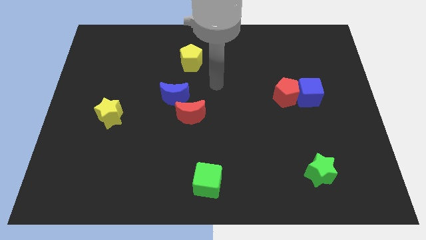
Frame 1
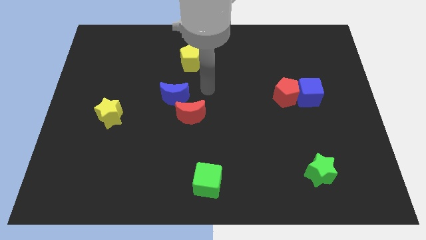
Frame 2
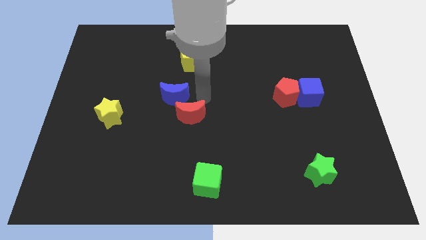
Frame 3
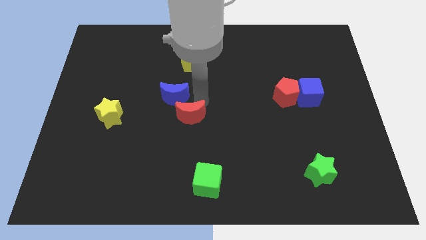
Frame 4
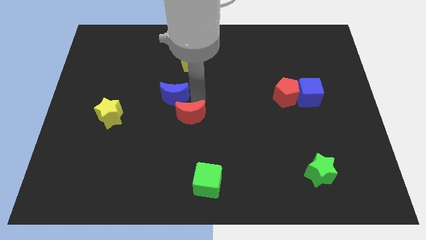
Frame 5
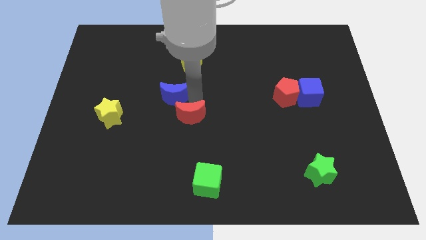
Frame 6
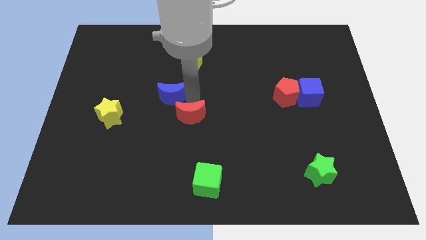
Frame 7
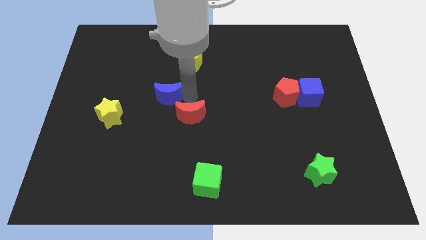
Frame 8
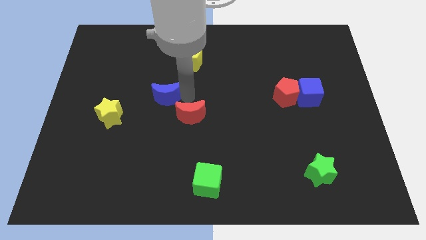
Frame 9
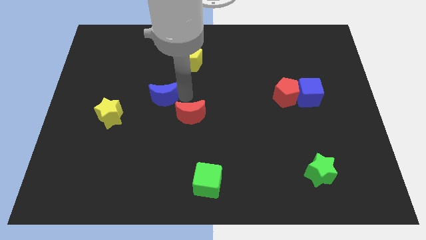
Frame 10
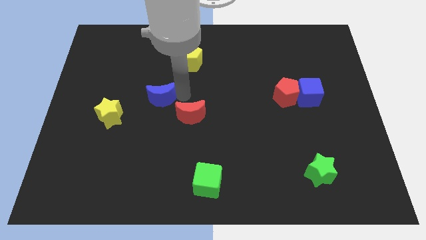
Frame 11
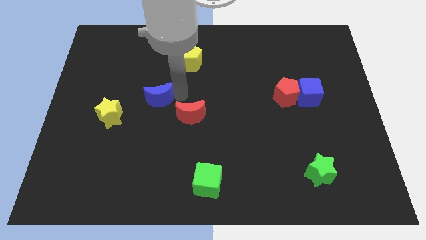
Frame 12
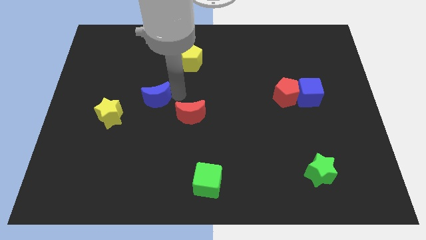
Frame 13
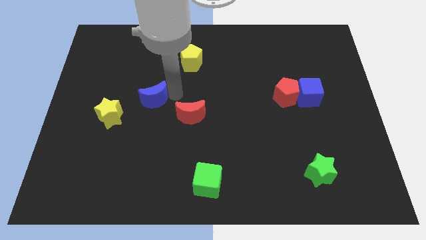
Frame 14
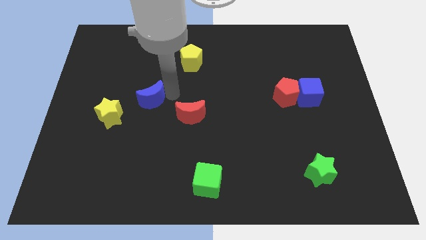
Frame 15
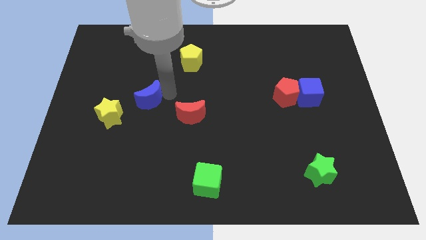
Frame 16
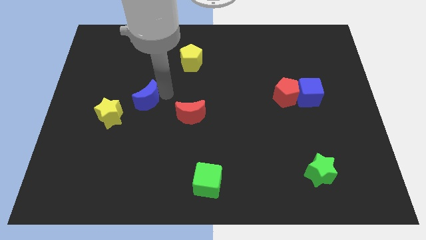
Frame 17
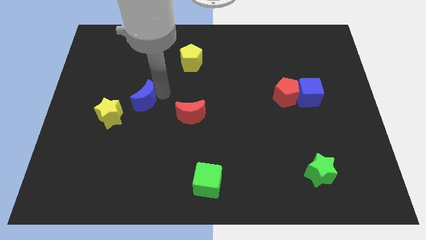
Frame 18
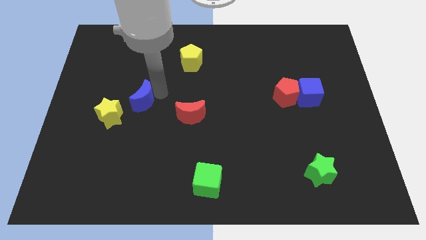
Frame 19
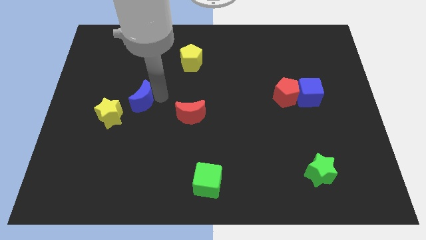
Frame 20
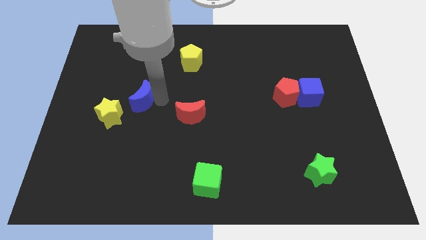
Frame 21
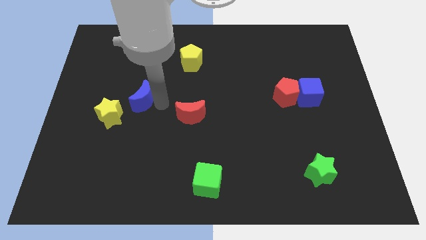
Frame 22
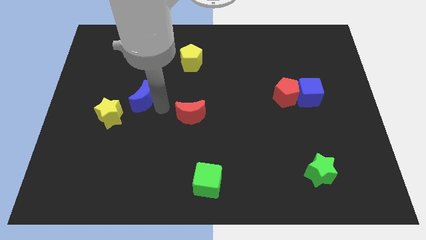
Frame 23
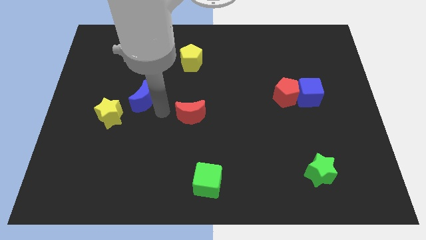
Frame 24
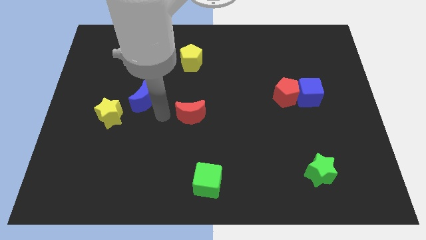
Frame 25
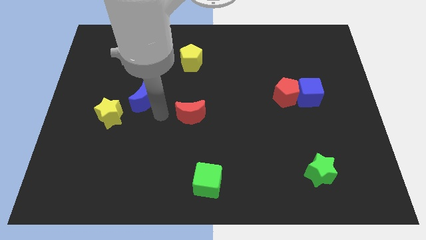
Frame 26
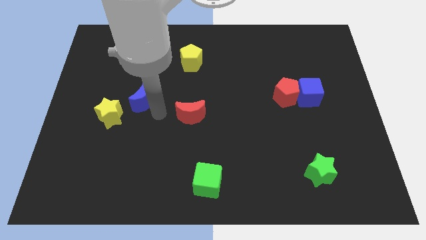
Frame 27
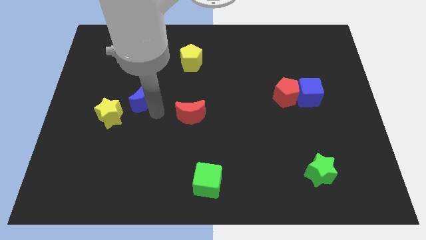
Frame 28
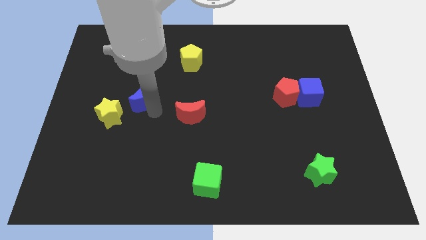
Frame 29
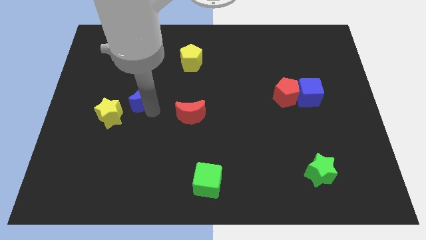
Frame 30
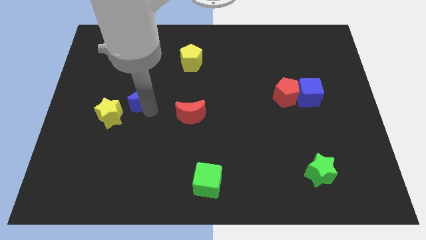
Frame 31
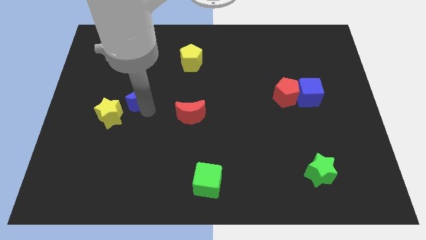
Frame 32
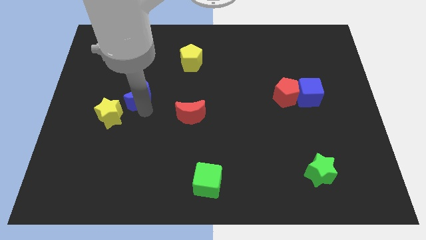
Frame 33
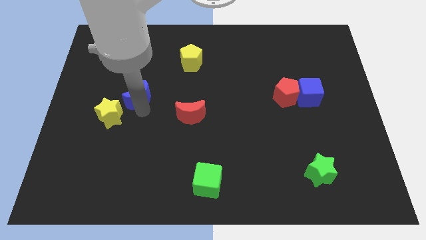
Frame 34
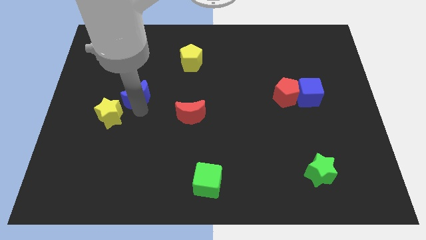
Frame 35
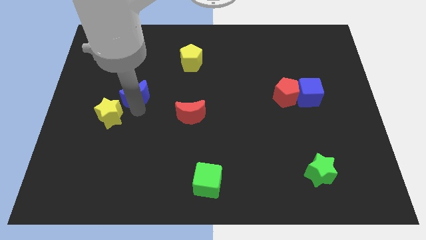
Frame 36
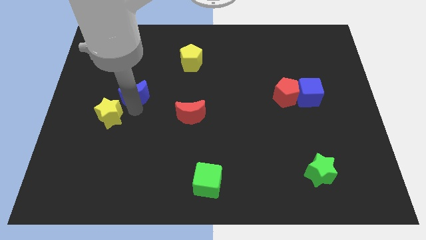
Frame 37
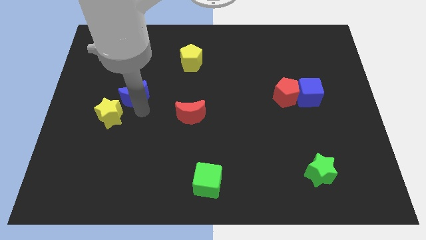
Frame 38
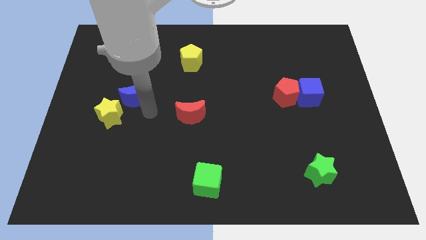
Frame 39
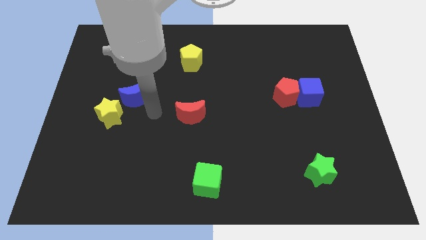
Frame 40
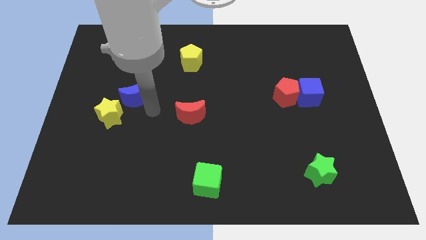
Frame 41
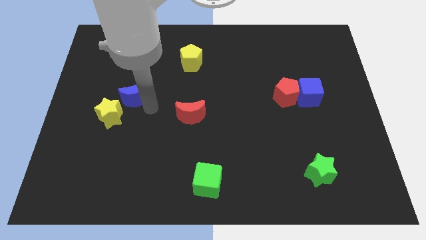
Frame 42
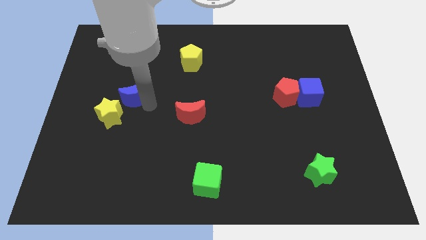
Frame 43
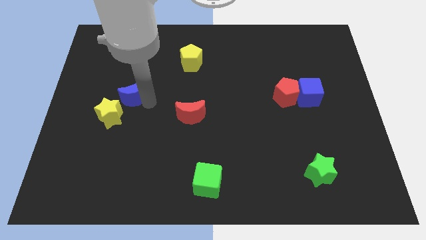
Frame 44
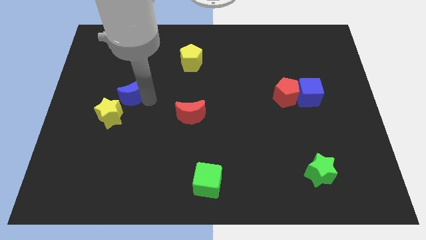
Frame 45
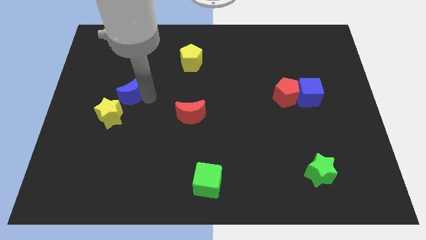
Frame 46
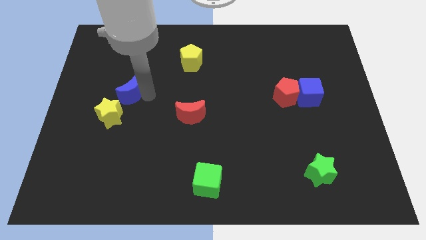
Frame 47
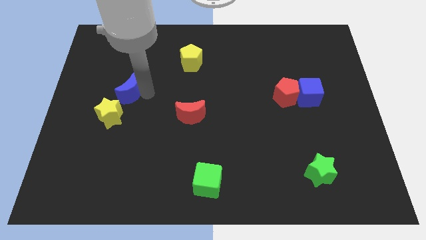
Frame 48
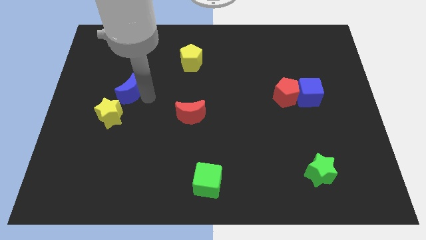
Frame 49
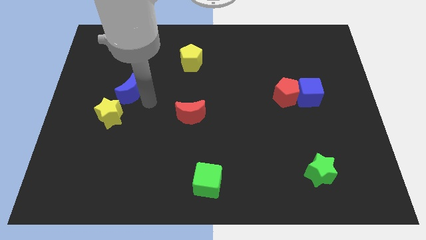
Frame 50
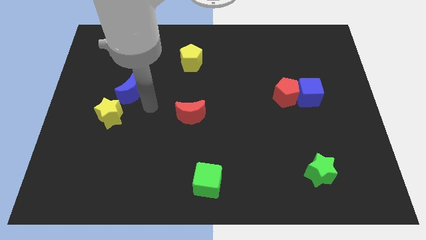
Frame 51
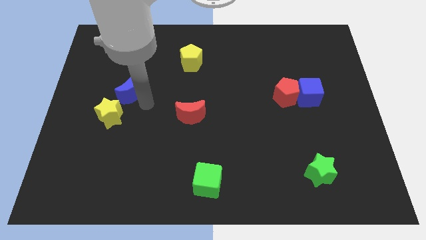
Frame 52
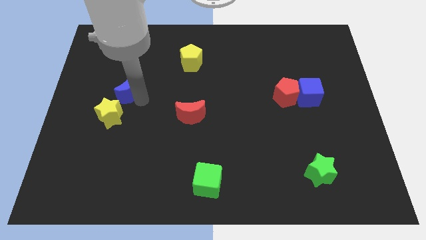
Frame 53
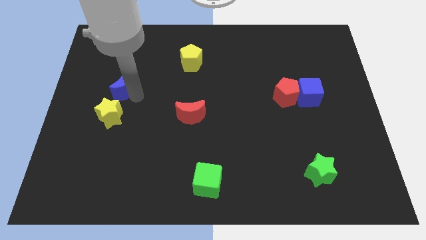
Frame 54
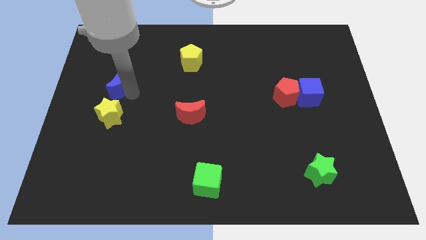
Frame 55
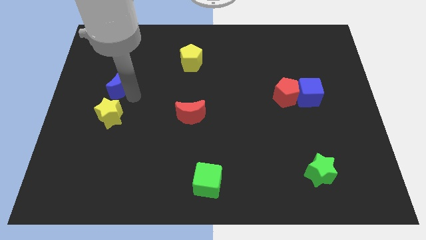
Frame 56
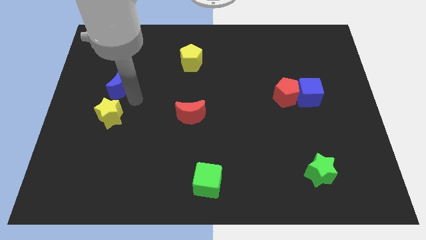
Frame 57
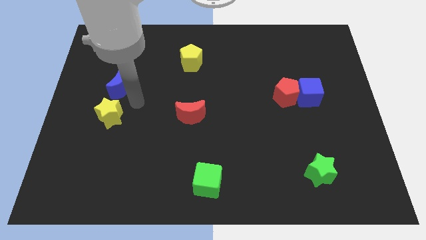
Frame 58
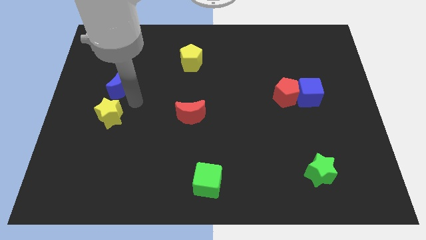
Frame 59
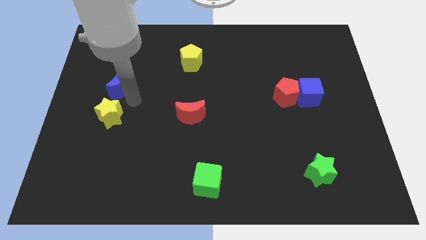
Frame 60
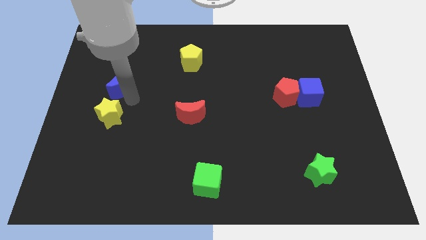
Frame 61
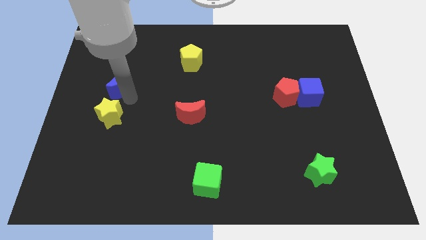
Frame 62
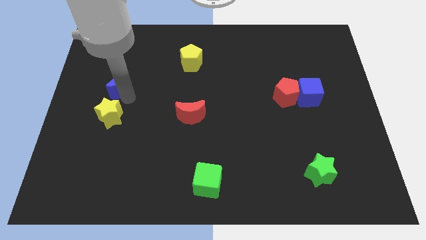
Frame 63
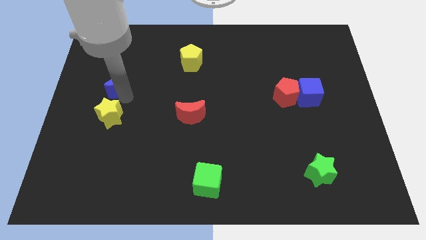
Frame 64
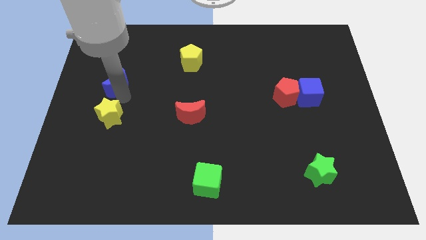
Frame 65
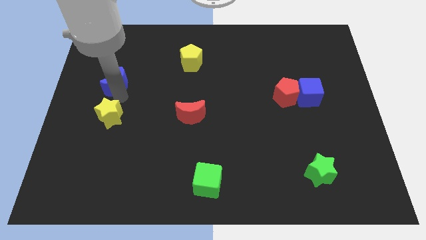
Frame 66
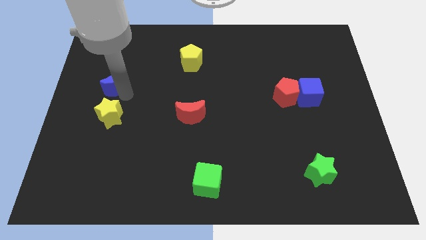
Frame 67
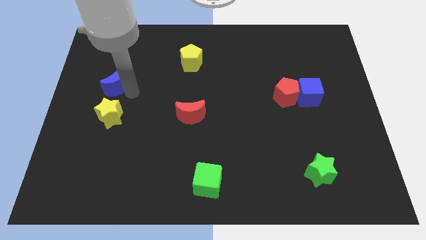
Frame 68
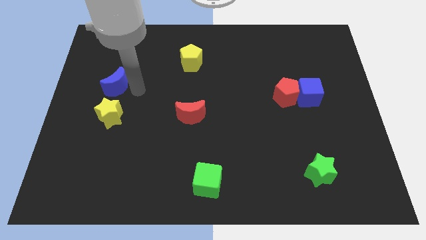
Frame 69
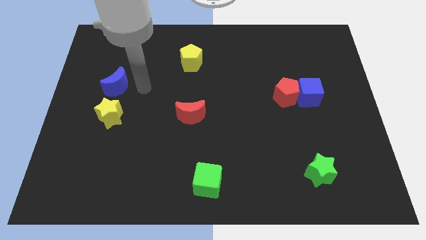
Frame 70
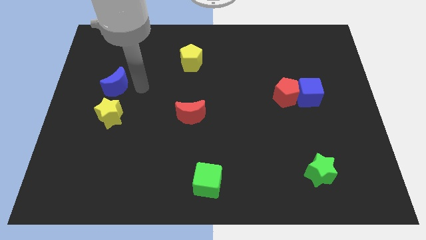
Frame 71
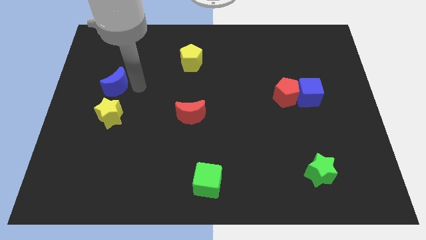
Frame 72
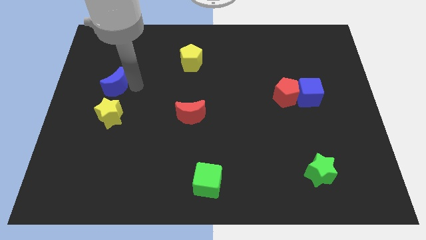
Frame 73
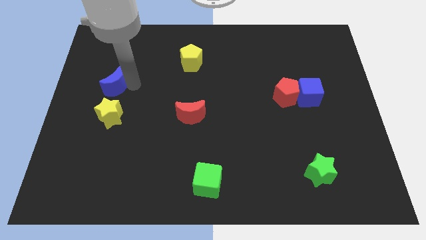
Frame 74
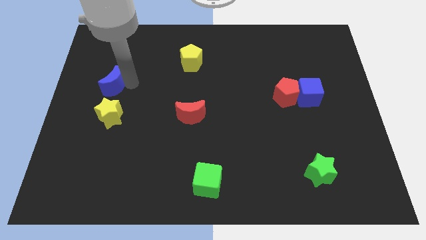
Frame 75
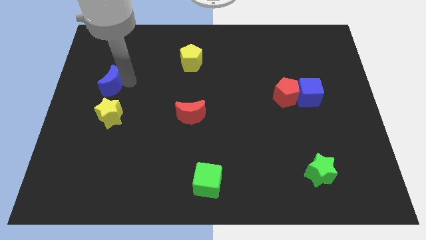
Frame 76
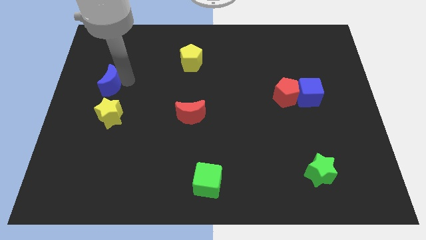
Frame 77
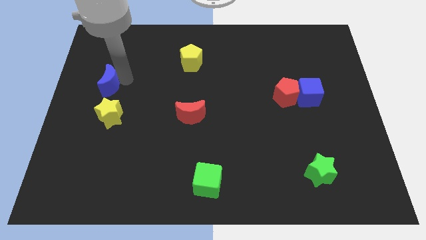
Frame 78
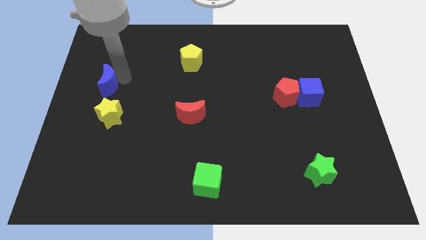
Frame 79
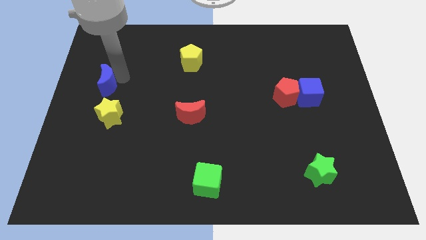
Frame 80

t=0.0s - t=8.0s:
put the blue moon to the center left
